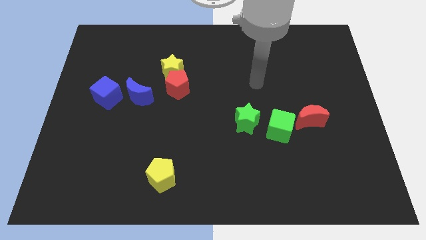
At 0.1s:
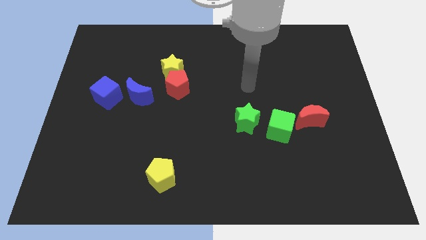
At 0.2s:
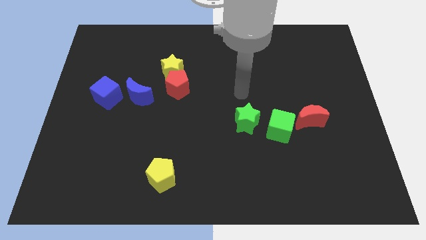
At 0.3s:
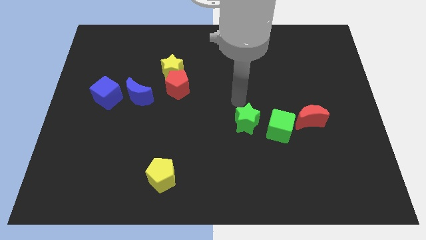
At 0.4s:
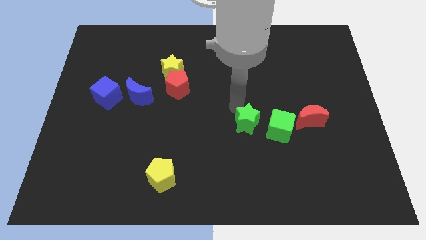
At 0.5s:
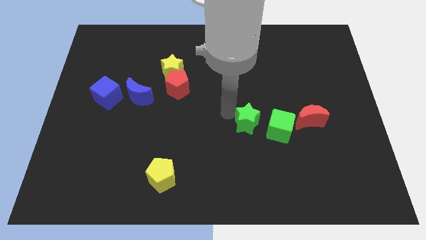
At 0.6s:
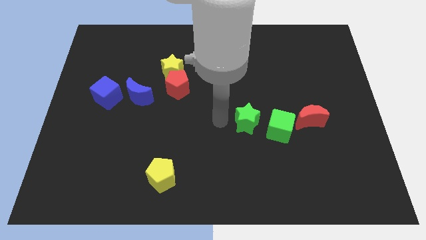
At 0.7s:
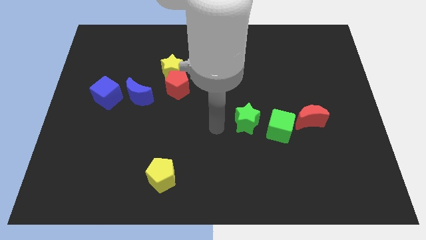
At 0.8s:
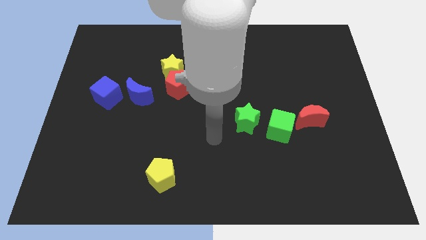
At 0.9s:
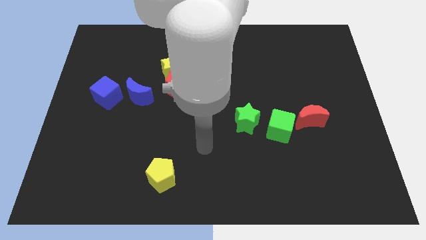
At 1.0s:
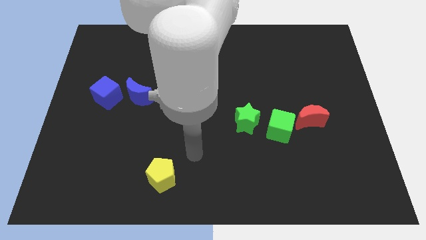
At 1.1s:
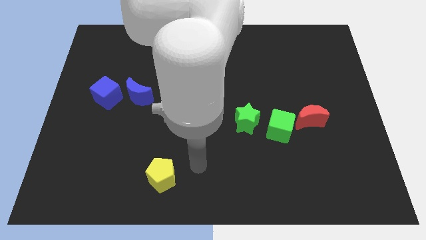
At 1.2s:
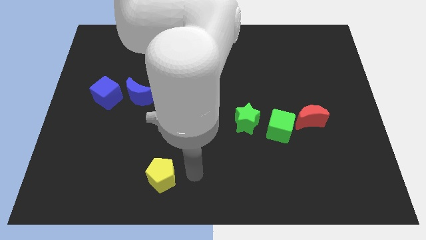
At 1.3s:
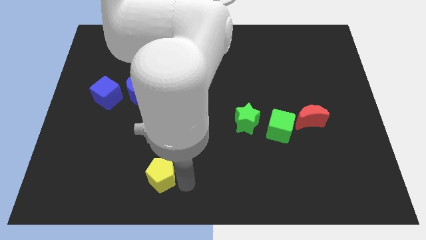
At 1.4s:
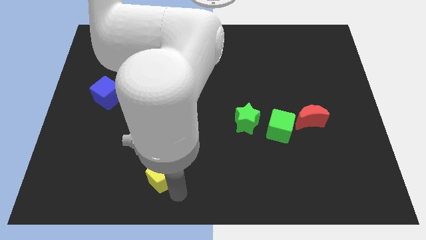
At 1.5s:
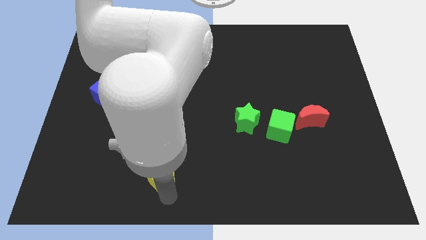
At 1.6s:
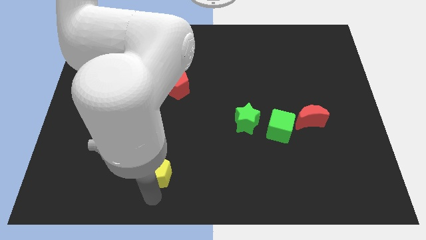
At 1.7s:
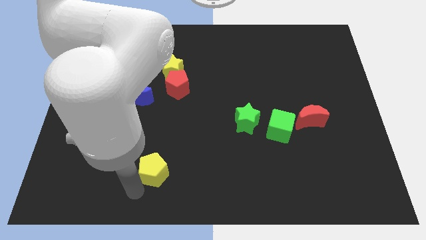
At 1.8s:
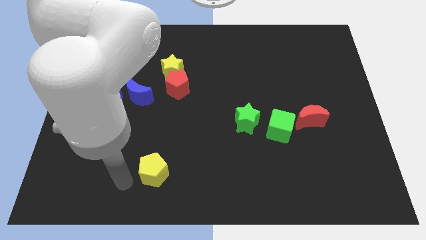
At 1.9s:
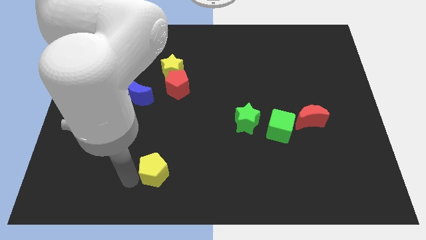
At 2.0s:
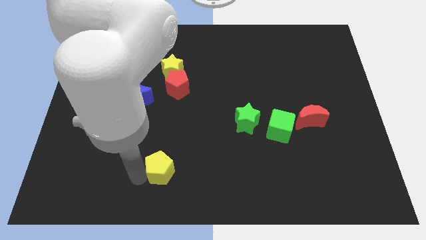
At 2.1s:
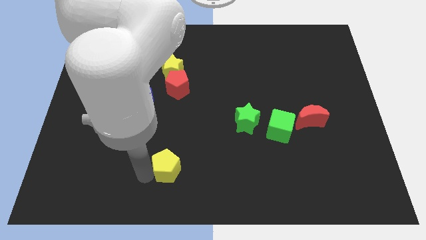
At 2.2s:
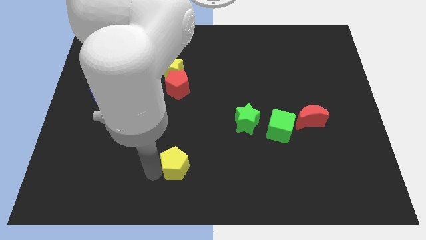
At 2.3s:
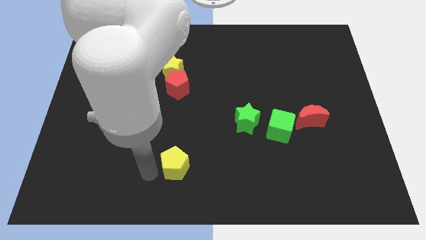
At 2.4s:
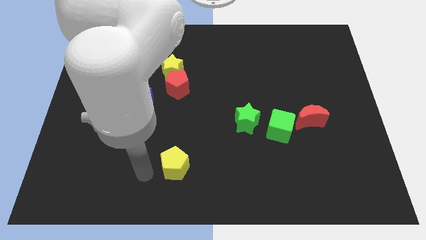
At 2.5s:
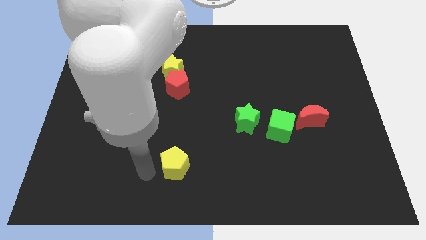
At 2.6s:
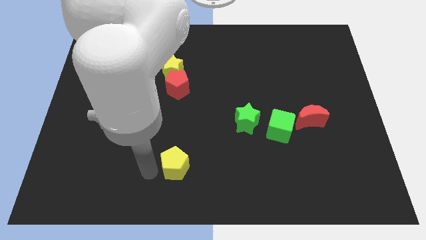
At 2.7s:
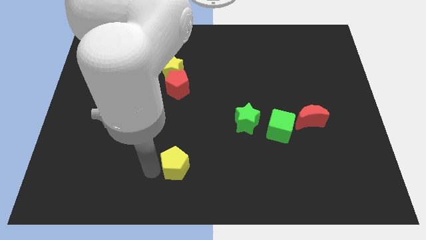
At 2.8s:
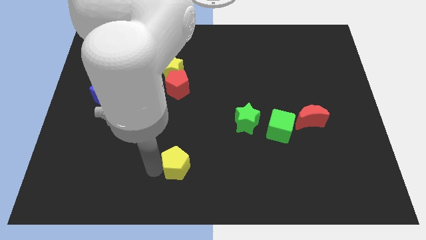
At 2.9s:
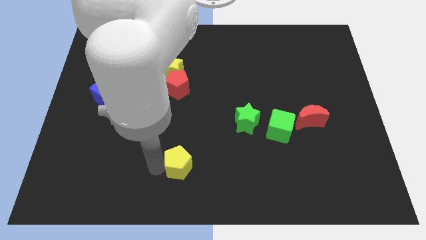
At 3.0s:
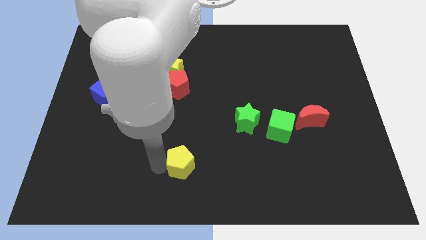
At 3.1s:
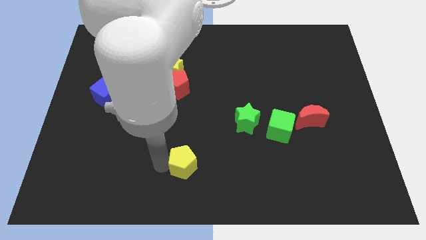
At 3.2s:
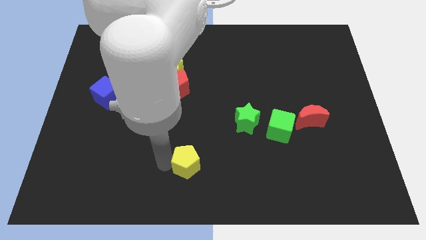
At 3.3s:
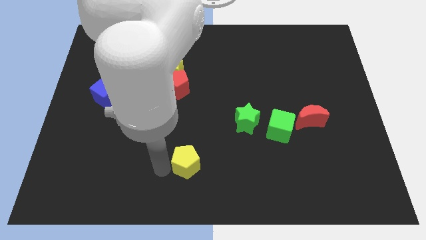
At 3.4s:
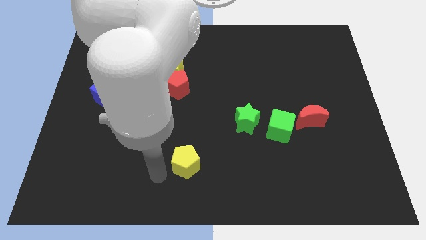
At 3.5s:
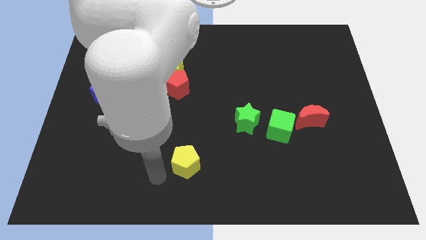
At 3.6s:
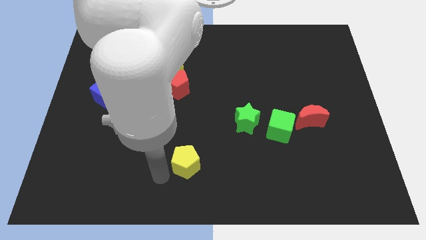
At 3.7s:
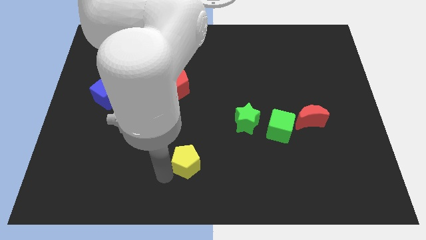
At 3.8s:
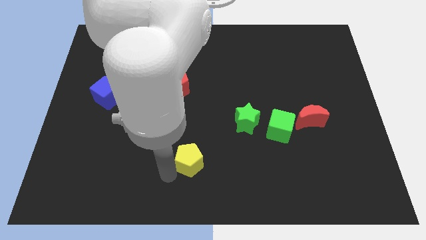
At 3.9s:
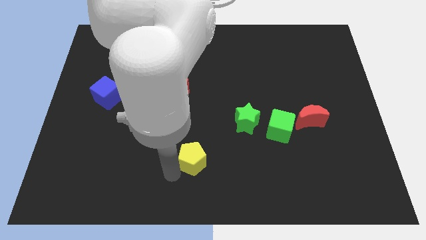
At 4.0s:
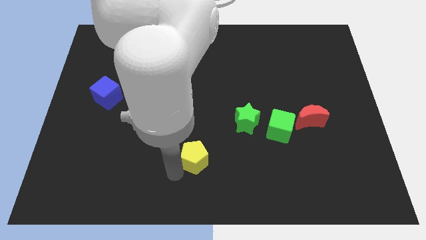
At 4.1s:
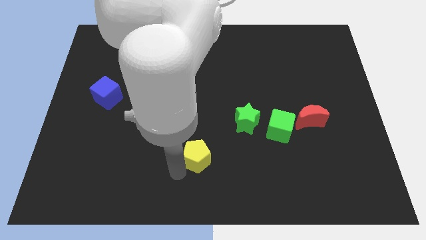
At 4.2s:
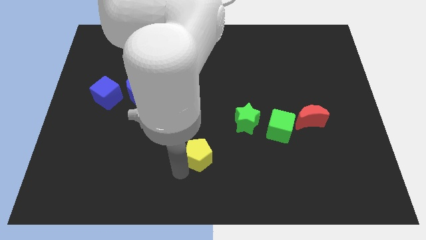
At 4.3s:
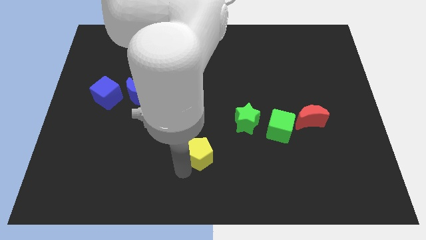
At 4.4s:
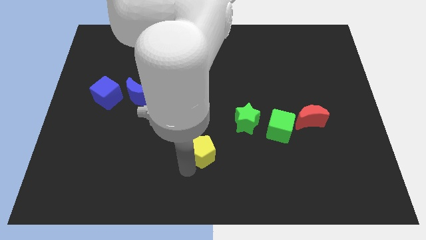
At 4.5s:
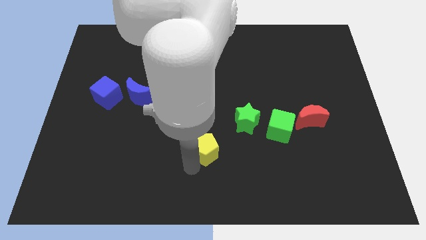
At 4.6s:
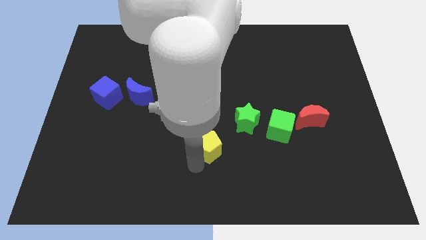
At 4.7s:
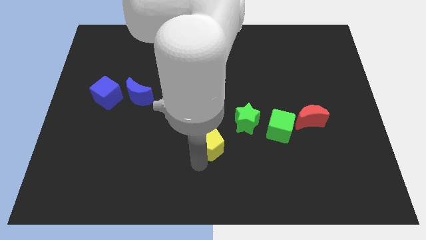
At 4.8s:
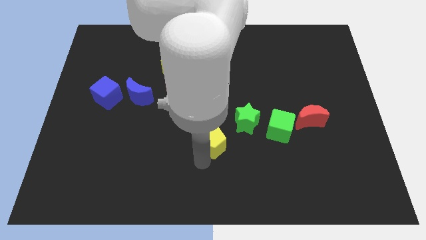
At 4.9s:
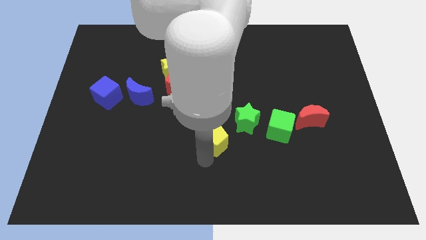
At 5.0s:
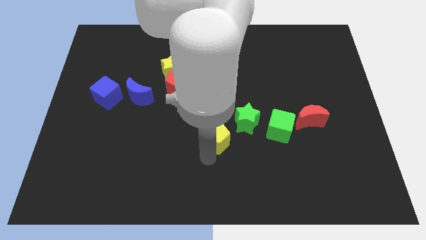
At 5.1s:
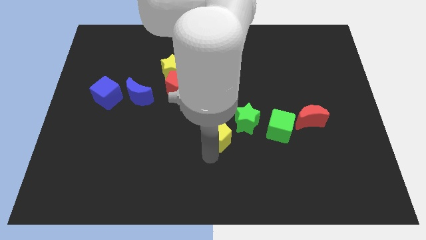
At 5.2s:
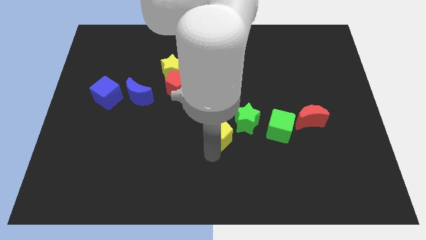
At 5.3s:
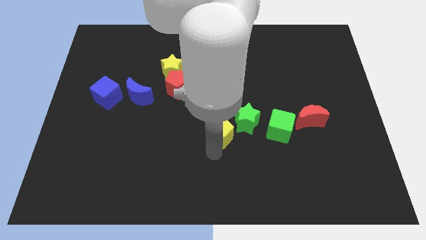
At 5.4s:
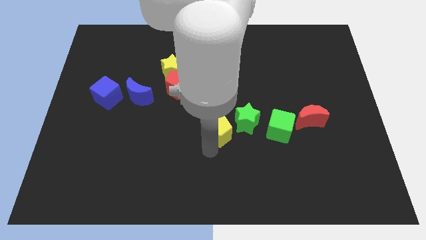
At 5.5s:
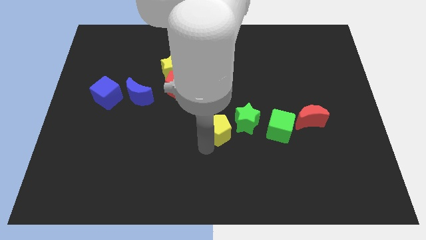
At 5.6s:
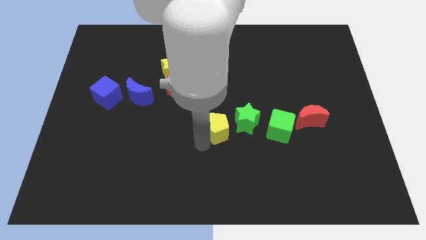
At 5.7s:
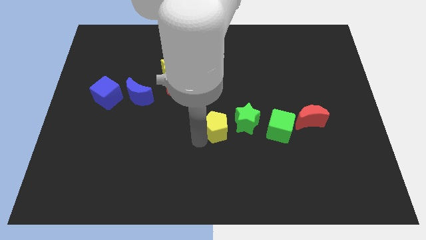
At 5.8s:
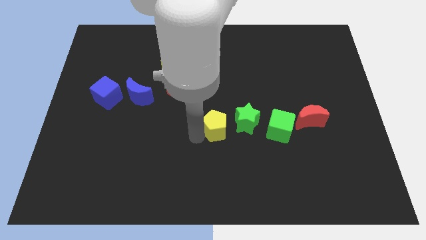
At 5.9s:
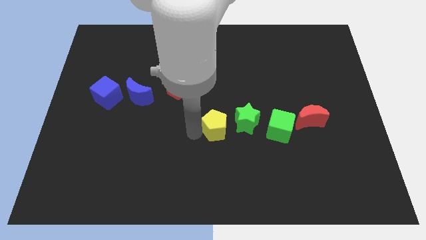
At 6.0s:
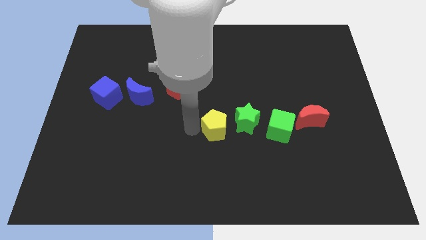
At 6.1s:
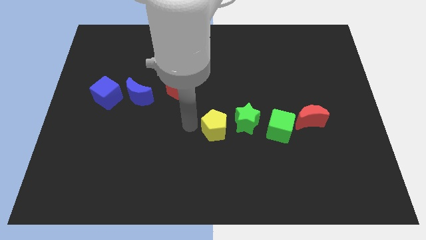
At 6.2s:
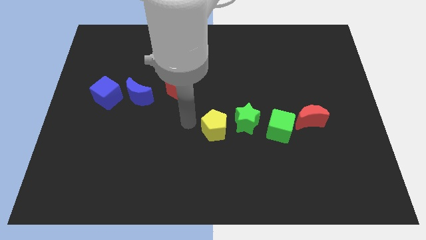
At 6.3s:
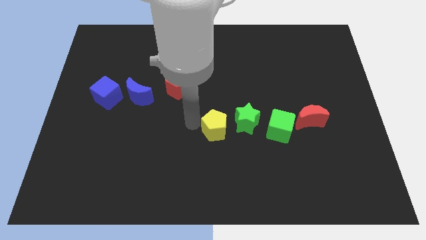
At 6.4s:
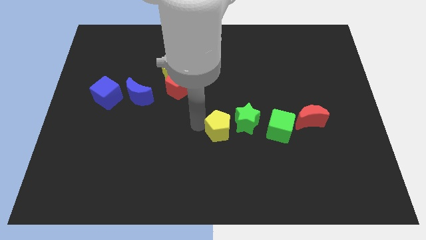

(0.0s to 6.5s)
push the yellow pentagon close to the green star
